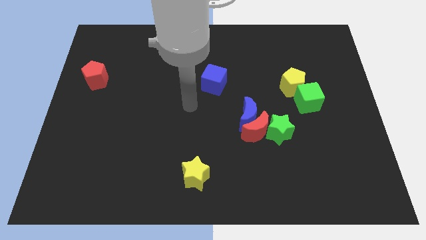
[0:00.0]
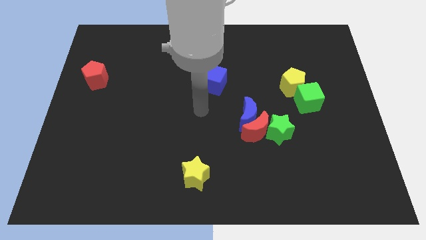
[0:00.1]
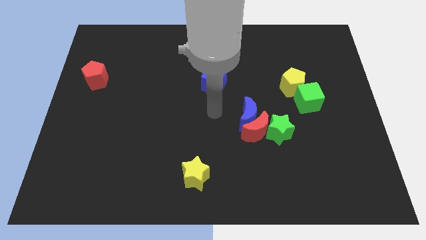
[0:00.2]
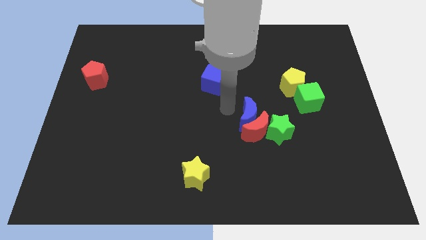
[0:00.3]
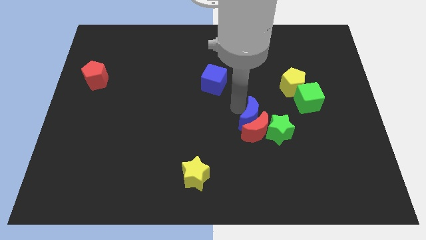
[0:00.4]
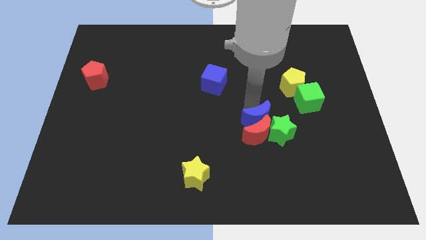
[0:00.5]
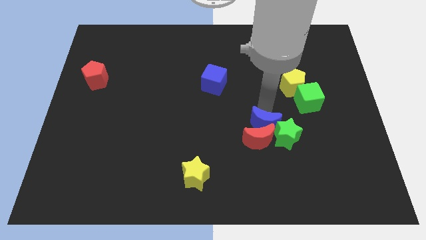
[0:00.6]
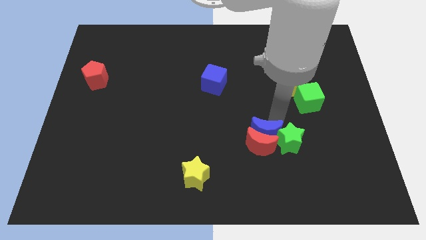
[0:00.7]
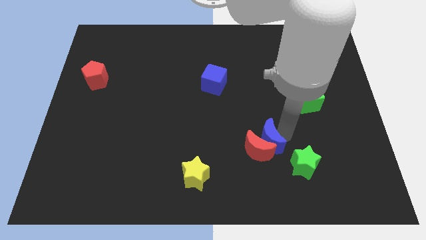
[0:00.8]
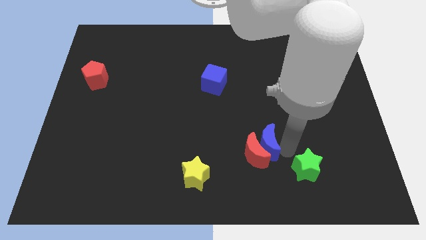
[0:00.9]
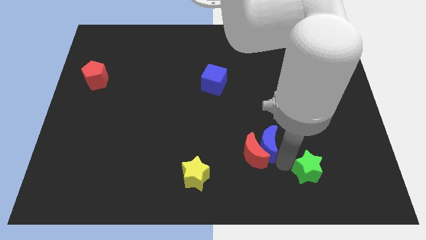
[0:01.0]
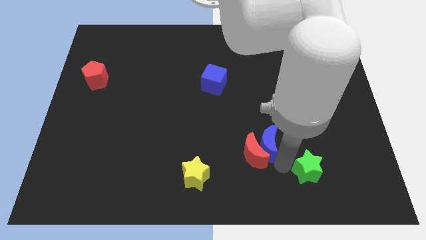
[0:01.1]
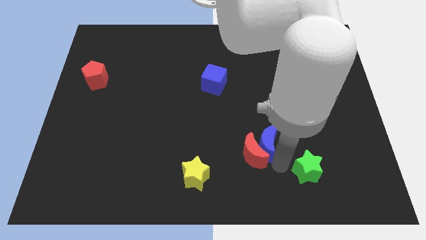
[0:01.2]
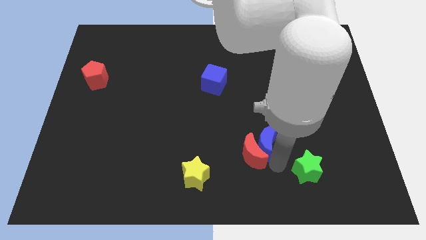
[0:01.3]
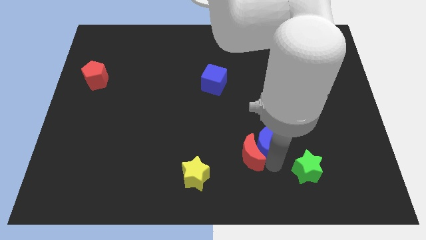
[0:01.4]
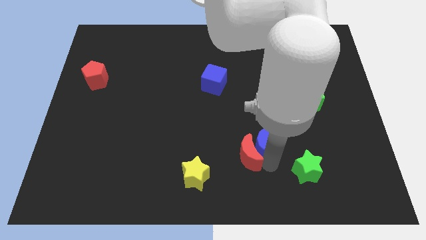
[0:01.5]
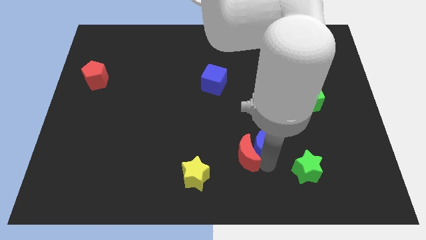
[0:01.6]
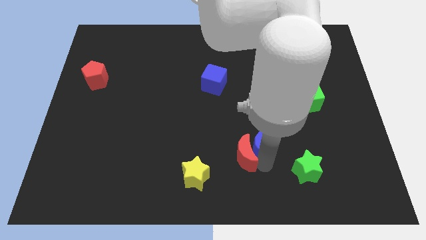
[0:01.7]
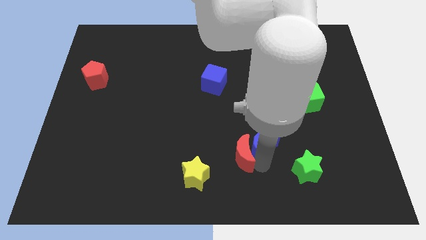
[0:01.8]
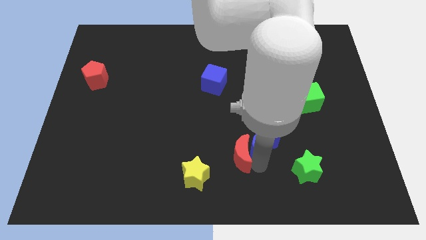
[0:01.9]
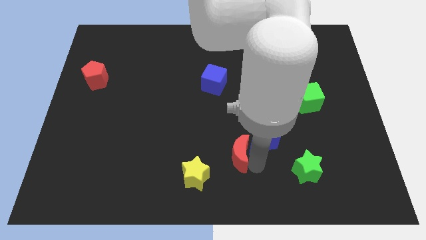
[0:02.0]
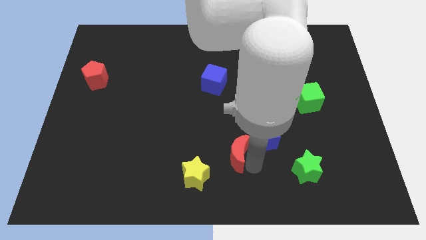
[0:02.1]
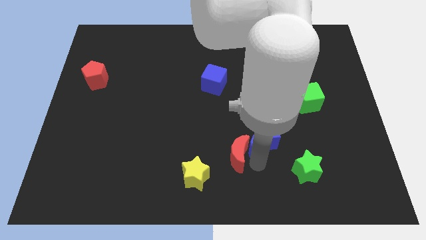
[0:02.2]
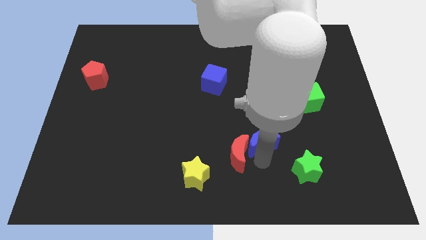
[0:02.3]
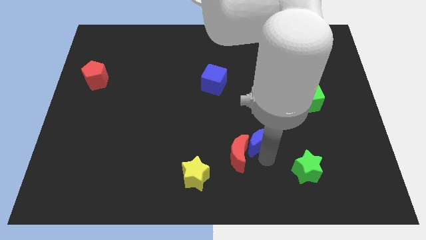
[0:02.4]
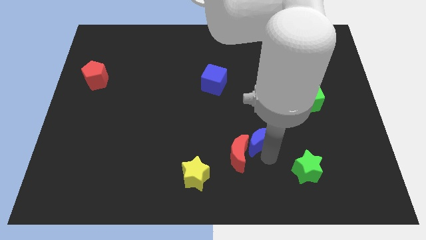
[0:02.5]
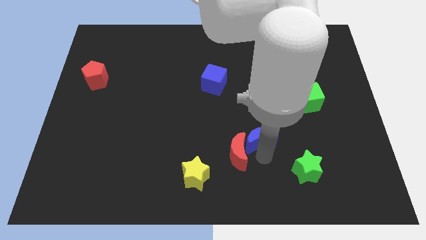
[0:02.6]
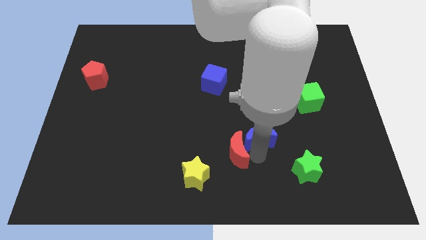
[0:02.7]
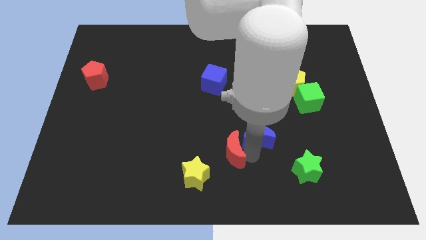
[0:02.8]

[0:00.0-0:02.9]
move the red moon away from the blue moon and green star

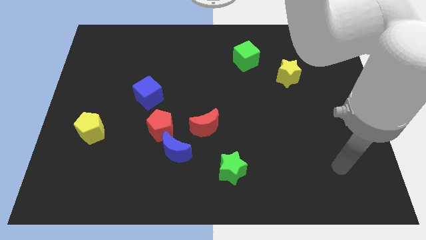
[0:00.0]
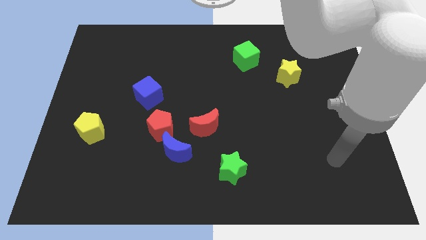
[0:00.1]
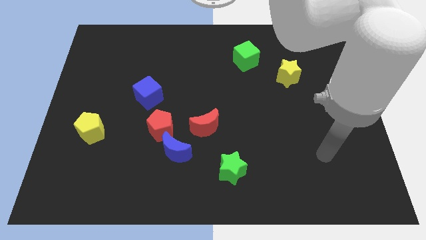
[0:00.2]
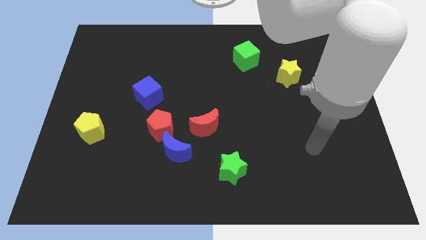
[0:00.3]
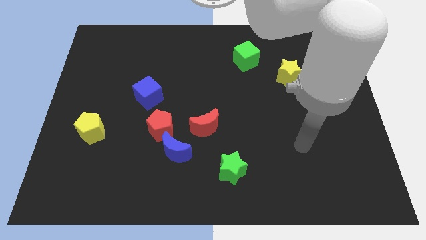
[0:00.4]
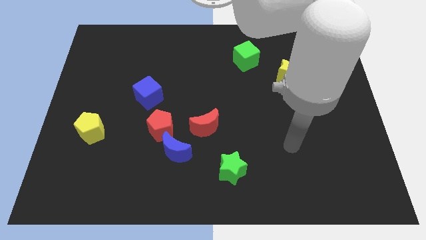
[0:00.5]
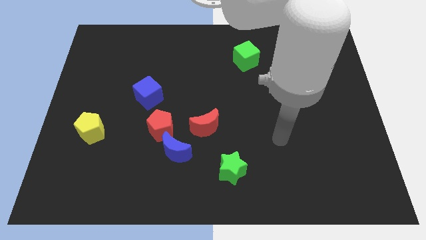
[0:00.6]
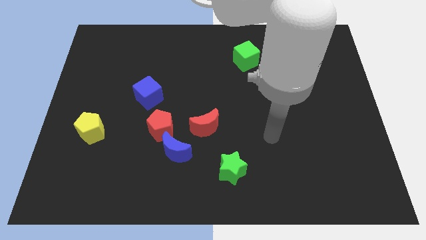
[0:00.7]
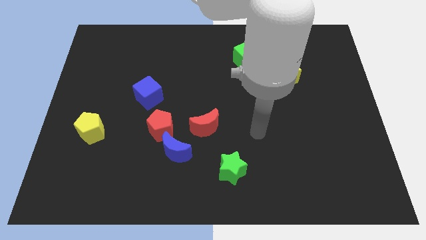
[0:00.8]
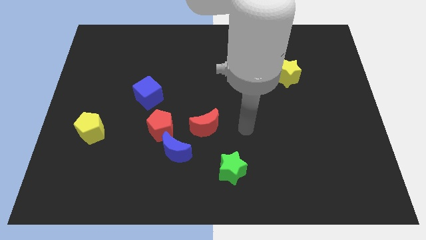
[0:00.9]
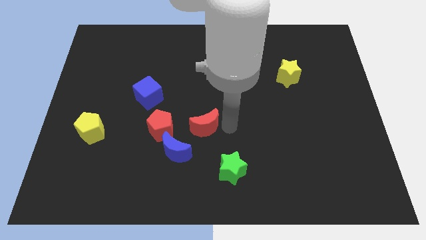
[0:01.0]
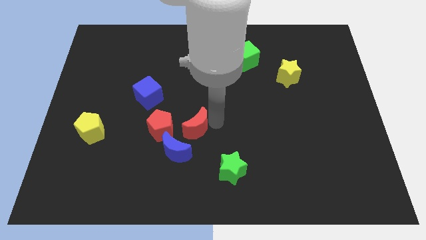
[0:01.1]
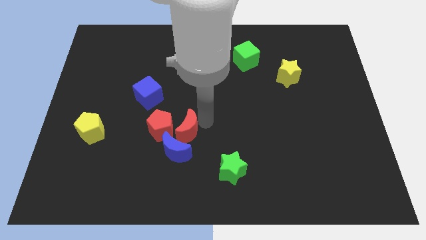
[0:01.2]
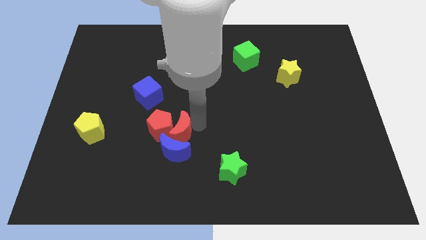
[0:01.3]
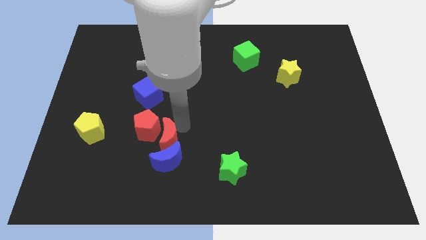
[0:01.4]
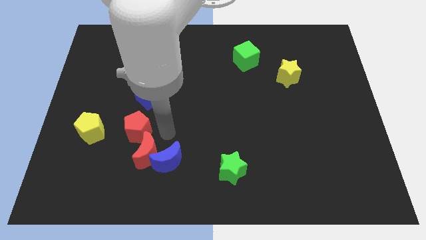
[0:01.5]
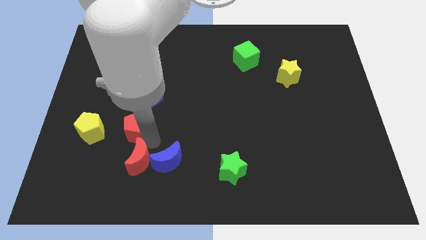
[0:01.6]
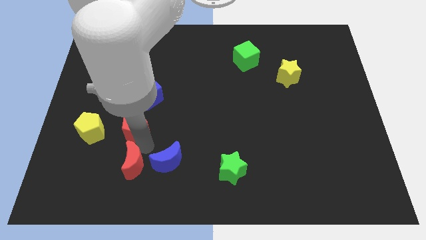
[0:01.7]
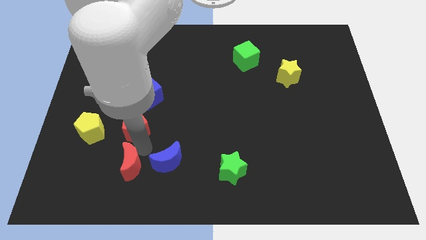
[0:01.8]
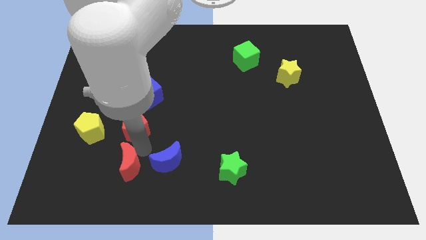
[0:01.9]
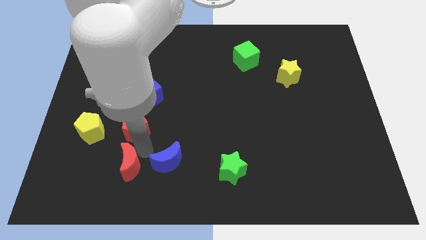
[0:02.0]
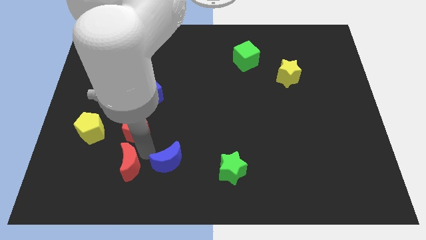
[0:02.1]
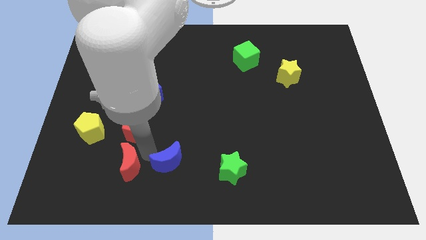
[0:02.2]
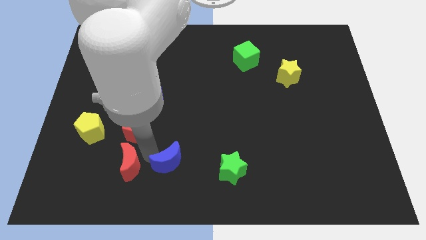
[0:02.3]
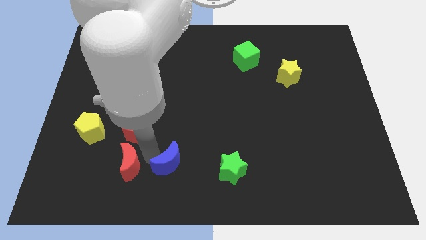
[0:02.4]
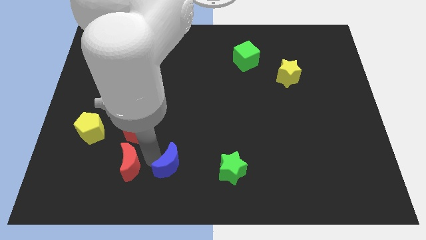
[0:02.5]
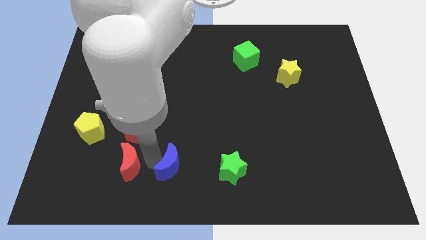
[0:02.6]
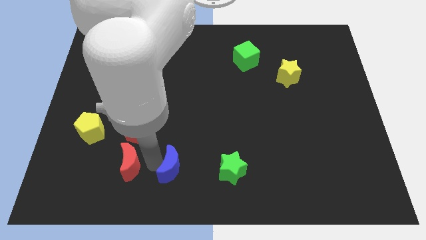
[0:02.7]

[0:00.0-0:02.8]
pull the blue moon apart from the red pentagon and red moon

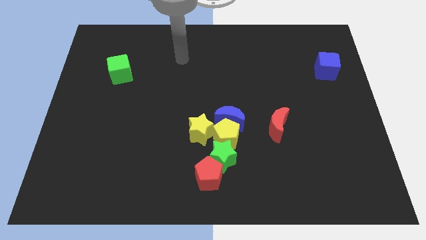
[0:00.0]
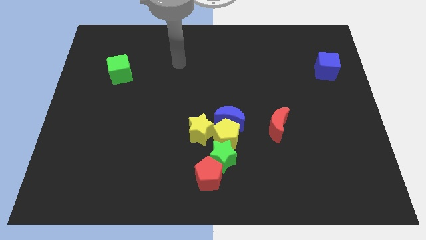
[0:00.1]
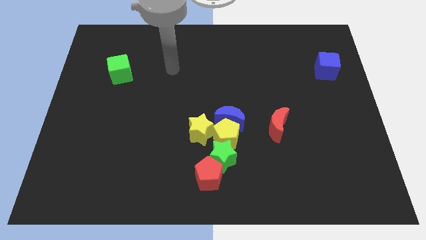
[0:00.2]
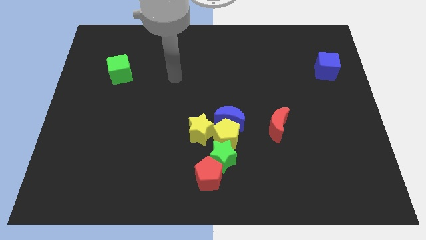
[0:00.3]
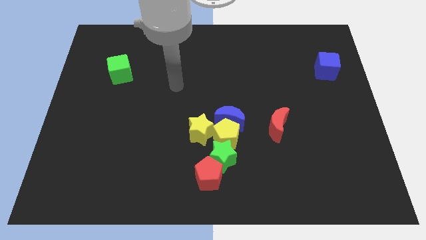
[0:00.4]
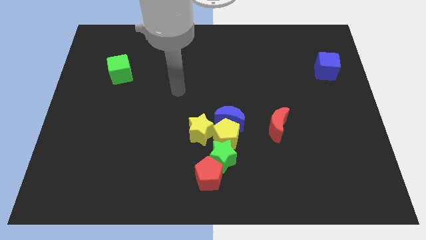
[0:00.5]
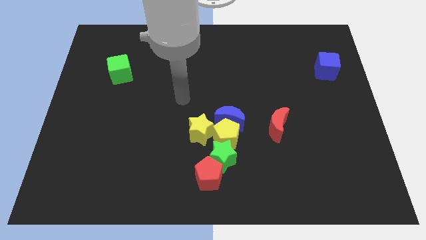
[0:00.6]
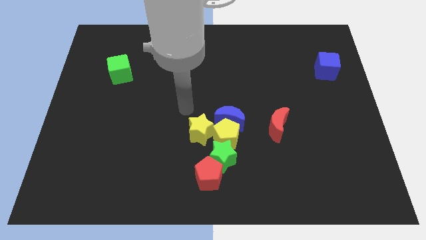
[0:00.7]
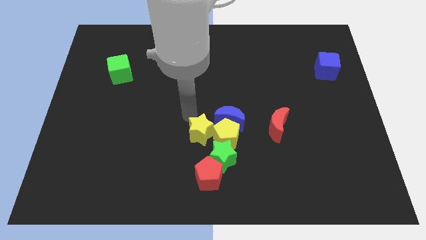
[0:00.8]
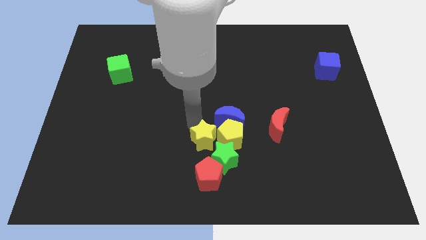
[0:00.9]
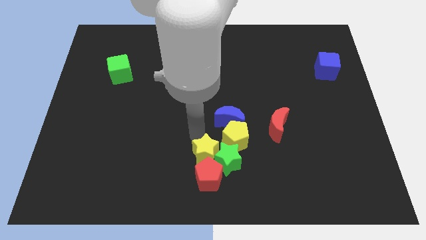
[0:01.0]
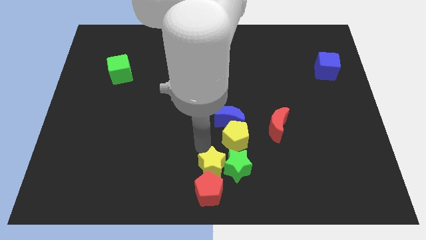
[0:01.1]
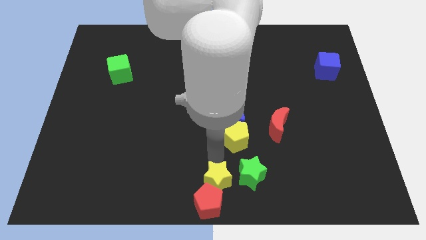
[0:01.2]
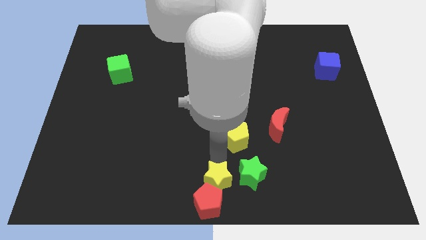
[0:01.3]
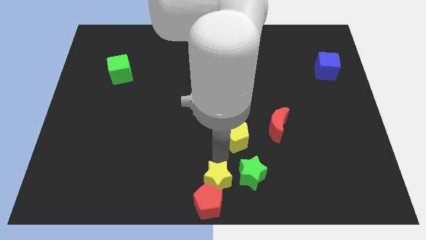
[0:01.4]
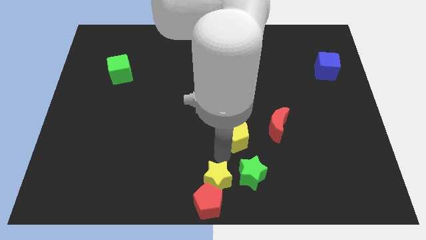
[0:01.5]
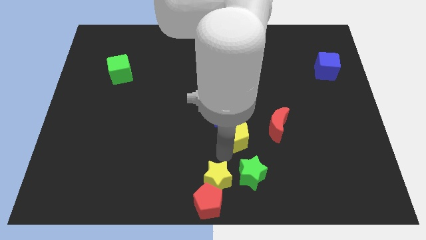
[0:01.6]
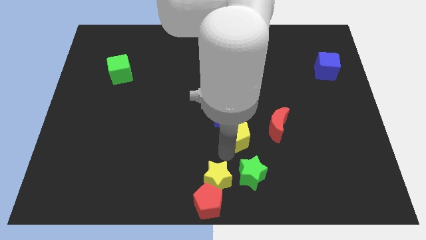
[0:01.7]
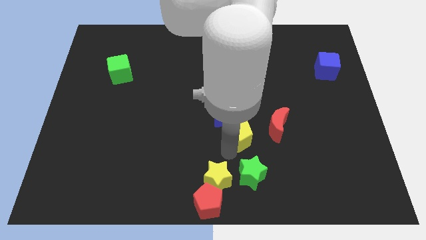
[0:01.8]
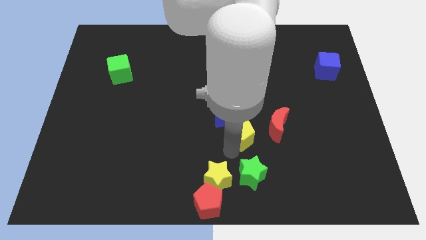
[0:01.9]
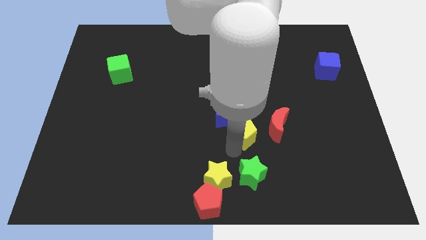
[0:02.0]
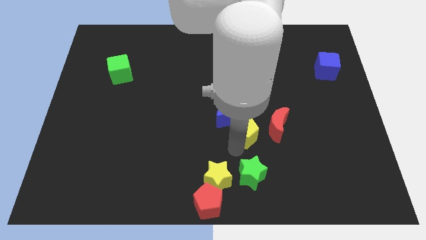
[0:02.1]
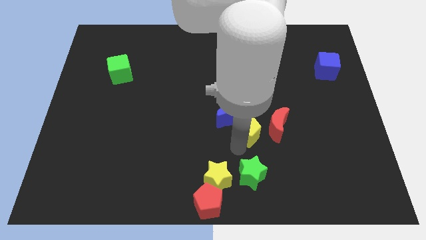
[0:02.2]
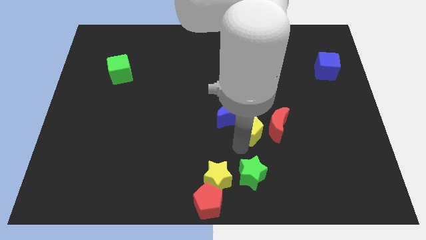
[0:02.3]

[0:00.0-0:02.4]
separate the yellow pentagon from the clump

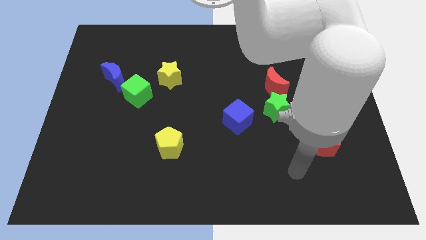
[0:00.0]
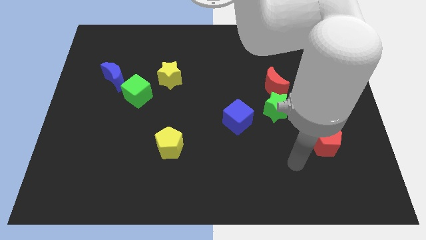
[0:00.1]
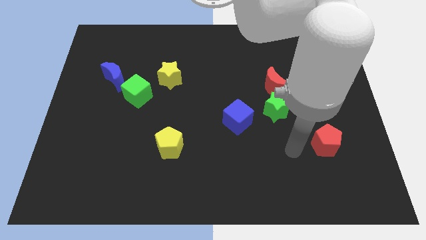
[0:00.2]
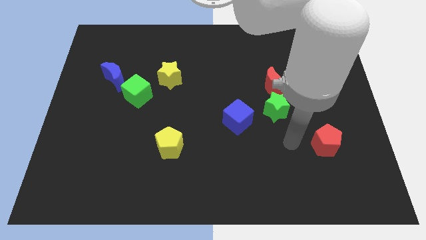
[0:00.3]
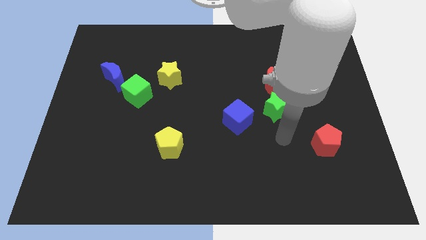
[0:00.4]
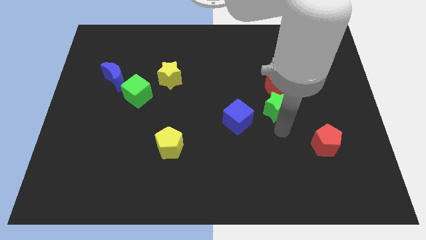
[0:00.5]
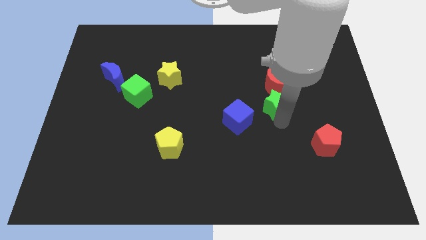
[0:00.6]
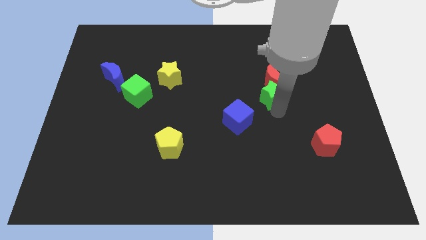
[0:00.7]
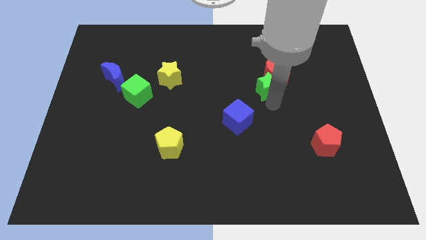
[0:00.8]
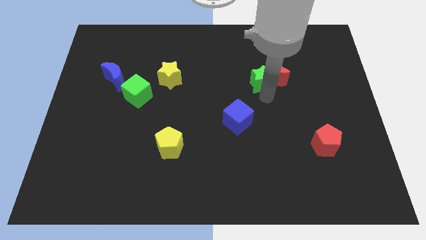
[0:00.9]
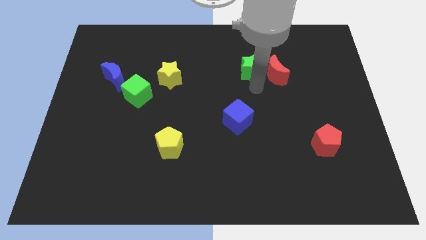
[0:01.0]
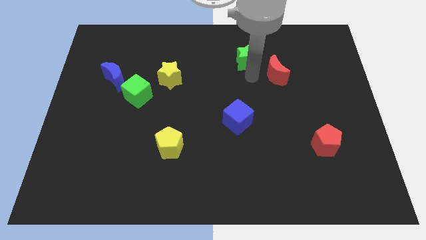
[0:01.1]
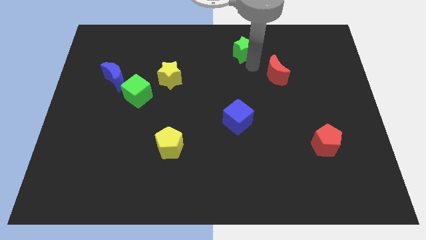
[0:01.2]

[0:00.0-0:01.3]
move the red moon away from the green star
